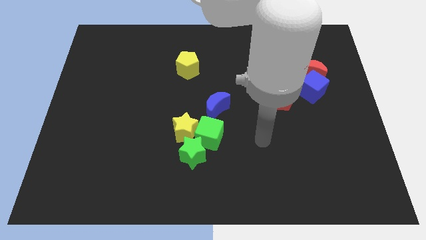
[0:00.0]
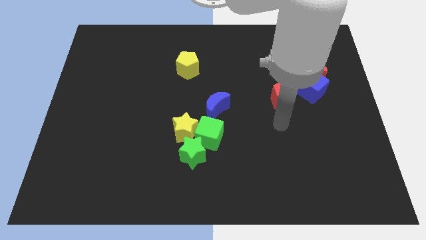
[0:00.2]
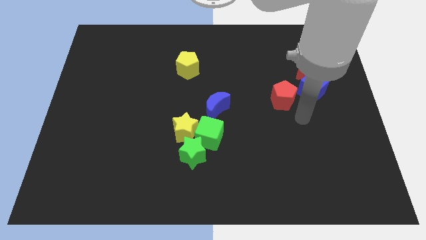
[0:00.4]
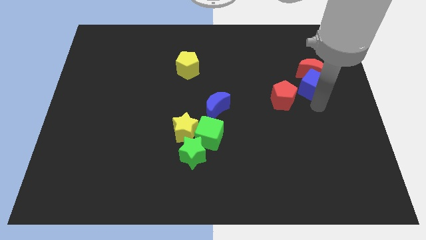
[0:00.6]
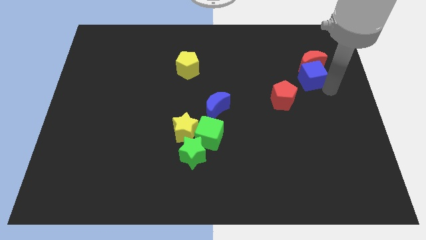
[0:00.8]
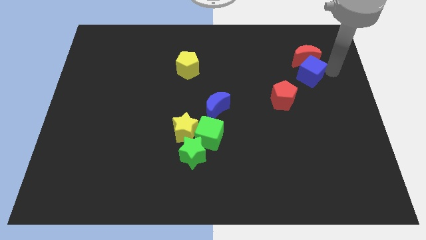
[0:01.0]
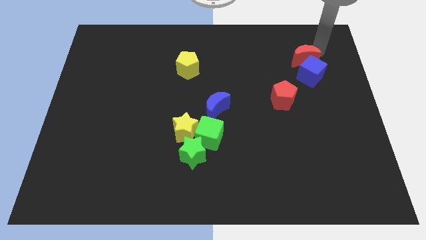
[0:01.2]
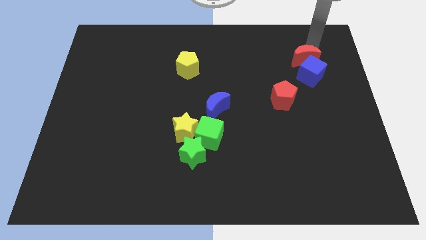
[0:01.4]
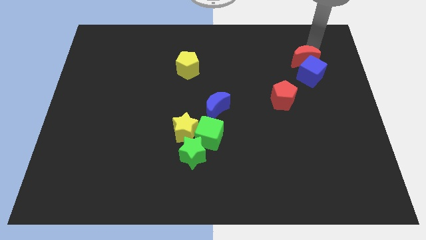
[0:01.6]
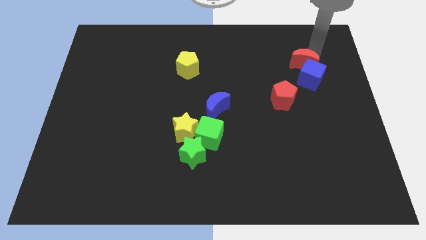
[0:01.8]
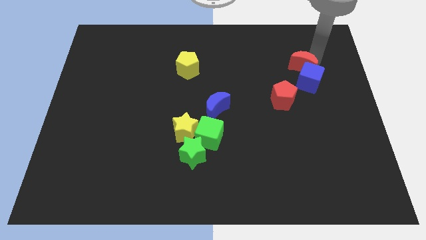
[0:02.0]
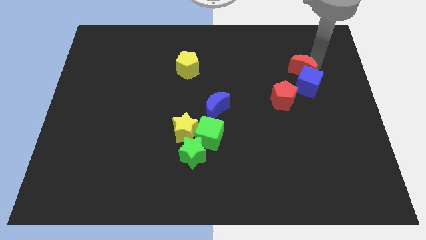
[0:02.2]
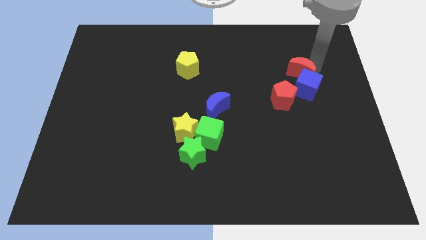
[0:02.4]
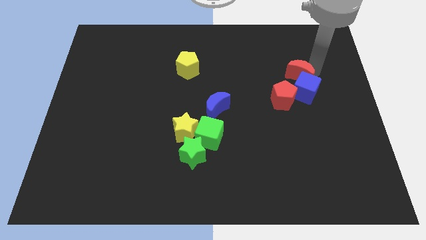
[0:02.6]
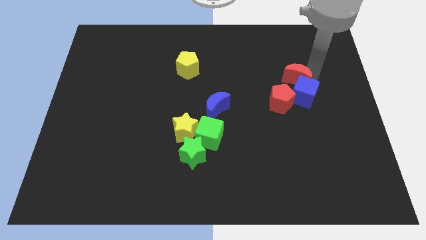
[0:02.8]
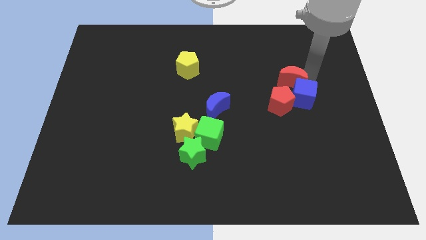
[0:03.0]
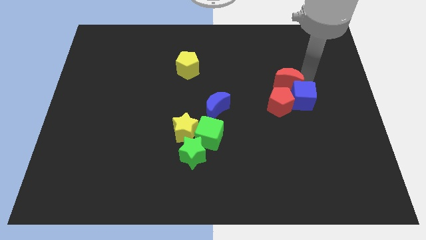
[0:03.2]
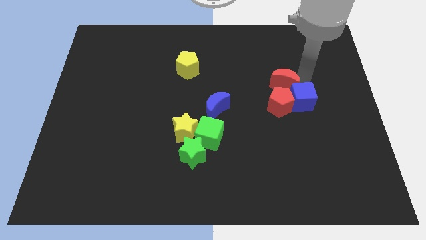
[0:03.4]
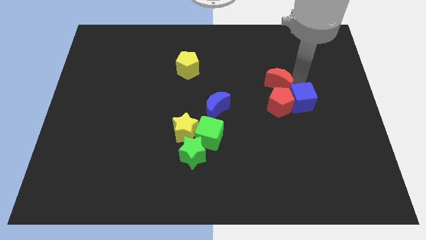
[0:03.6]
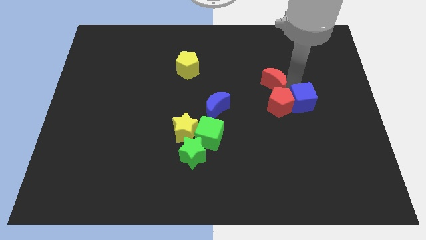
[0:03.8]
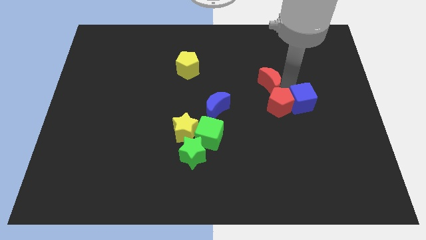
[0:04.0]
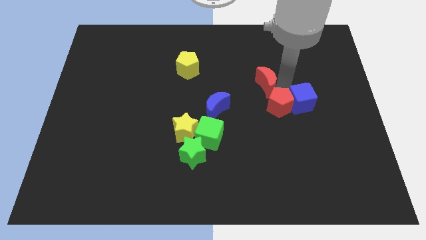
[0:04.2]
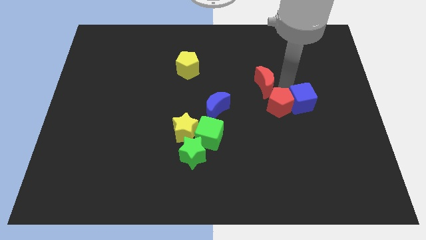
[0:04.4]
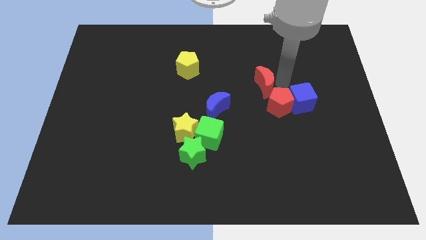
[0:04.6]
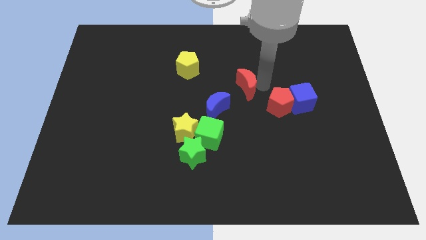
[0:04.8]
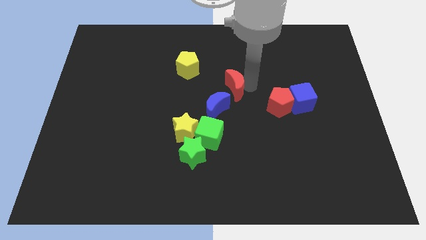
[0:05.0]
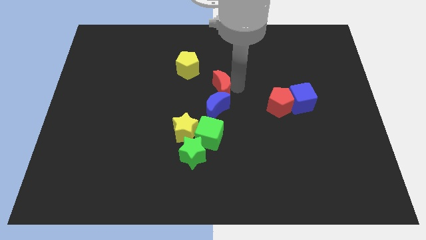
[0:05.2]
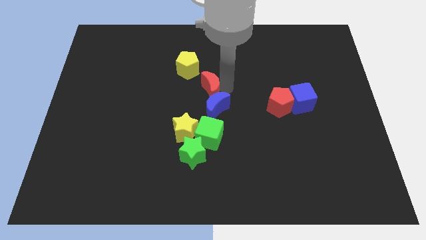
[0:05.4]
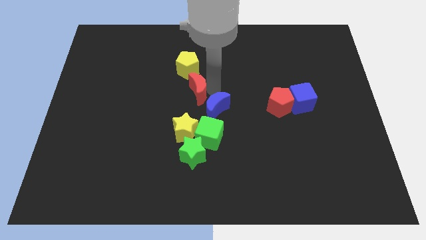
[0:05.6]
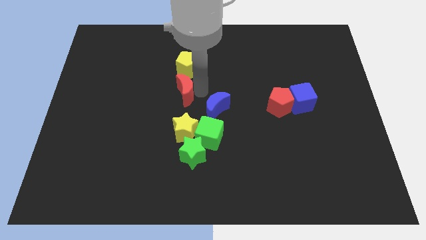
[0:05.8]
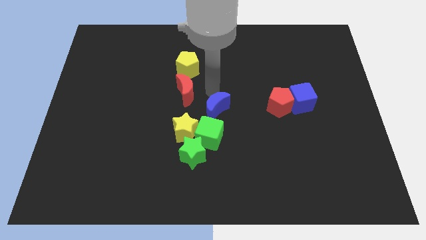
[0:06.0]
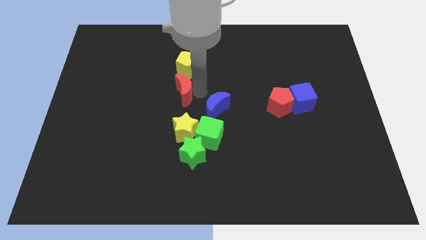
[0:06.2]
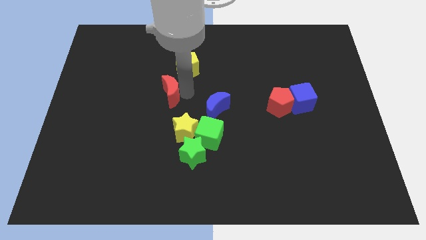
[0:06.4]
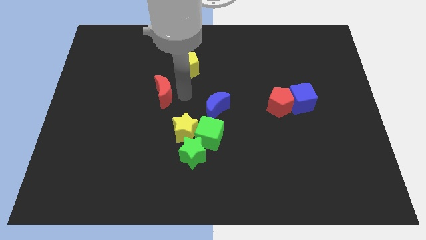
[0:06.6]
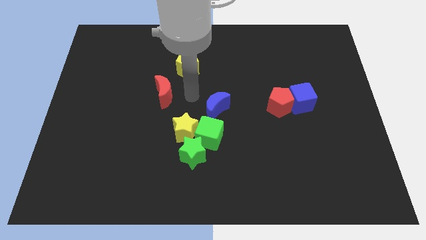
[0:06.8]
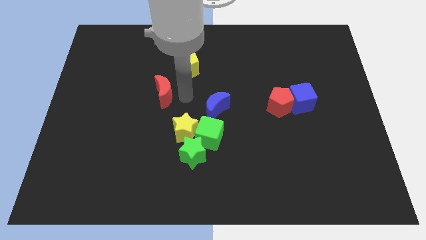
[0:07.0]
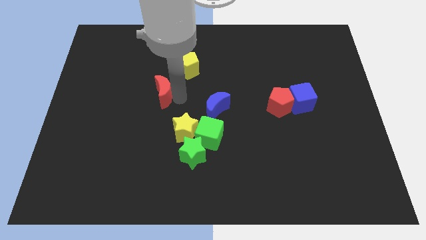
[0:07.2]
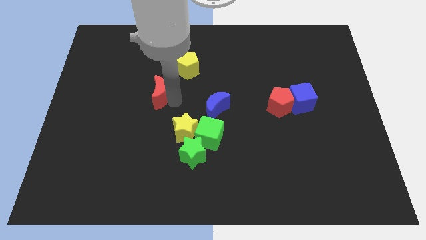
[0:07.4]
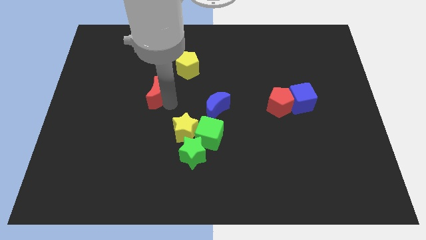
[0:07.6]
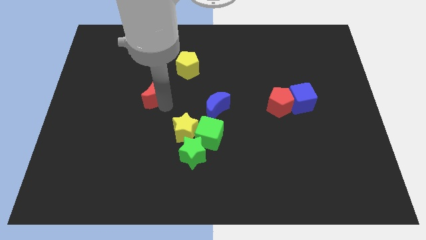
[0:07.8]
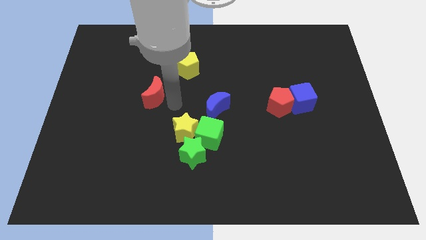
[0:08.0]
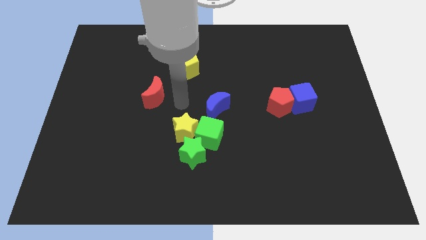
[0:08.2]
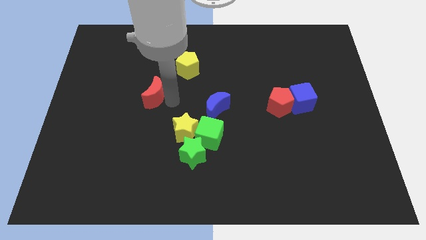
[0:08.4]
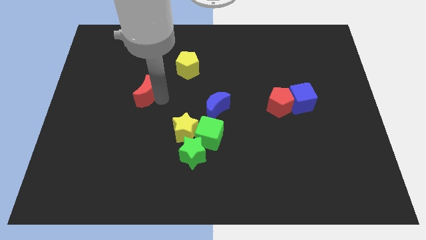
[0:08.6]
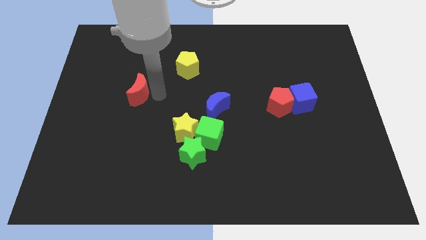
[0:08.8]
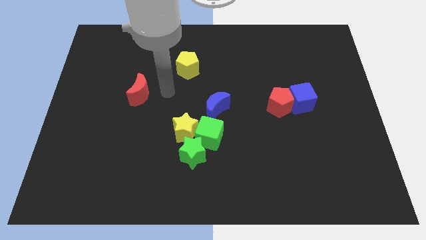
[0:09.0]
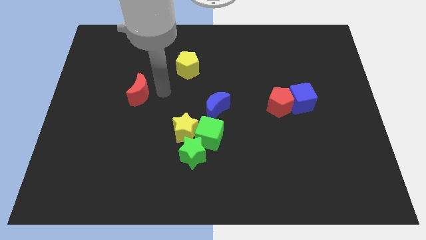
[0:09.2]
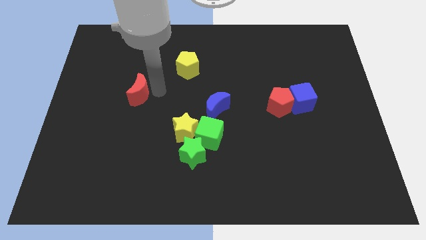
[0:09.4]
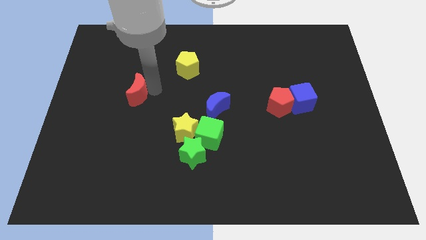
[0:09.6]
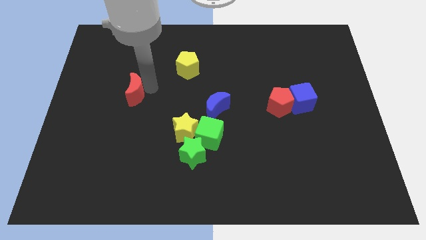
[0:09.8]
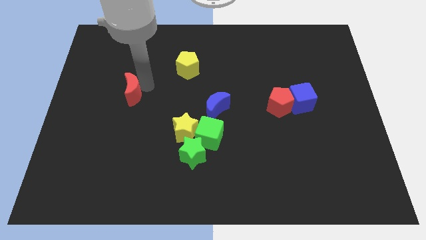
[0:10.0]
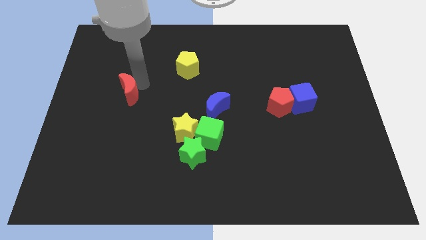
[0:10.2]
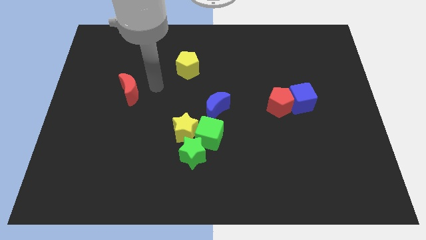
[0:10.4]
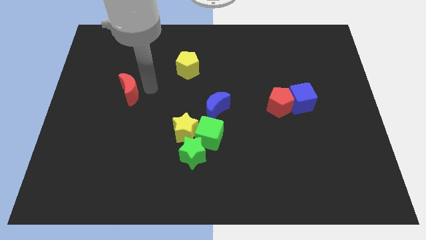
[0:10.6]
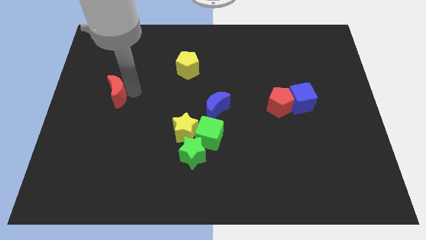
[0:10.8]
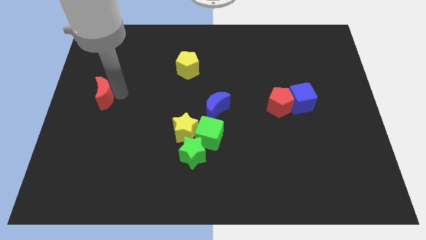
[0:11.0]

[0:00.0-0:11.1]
slide the red moon to the center left

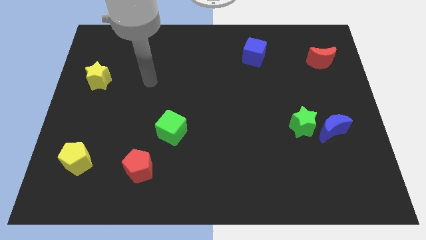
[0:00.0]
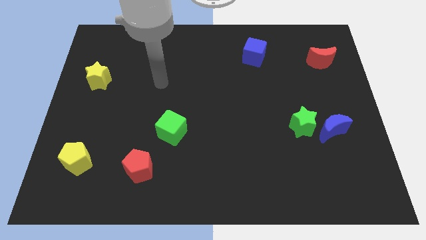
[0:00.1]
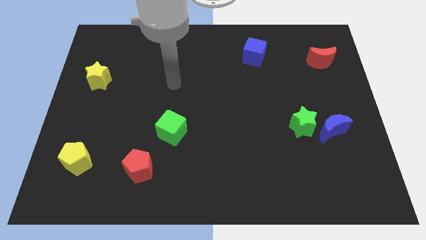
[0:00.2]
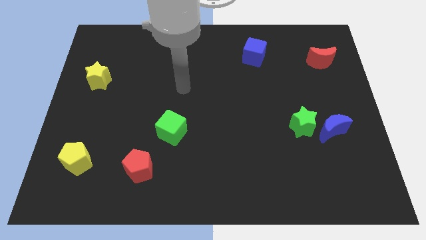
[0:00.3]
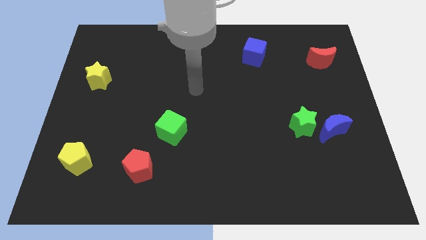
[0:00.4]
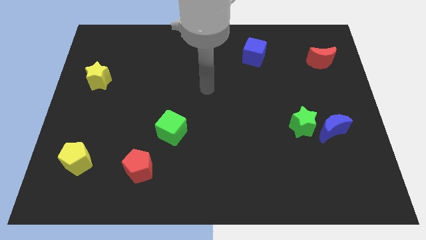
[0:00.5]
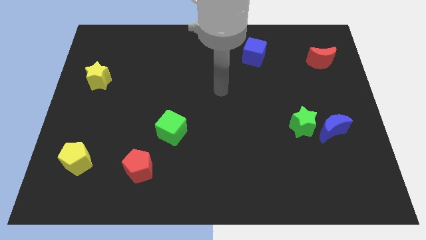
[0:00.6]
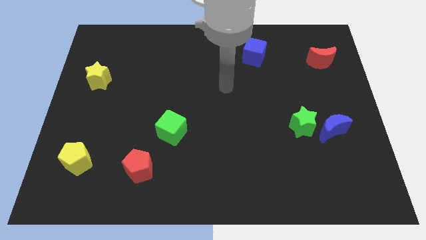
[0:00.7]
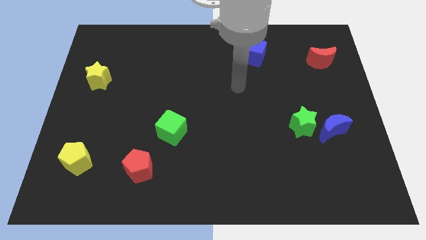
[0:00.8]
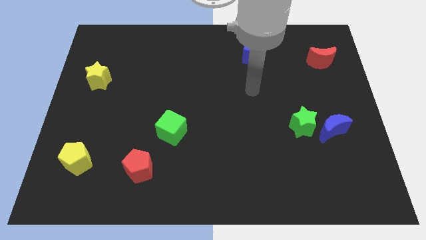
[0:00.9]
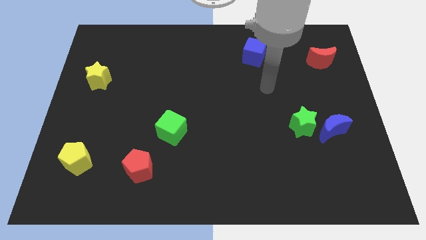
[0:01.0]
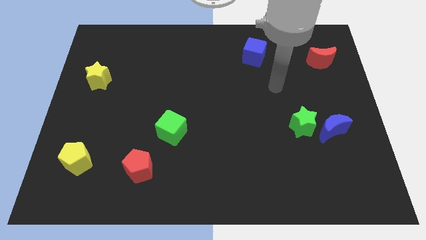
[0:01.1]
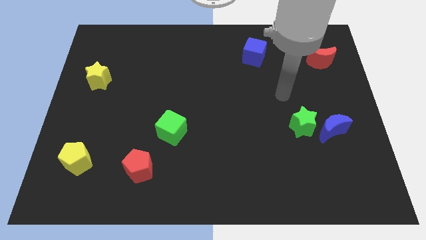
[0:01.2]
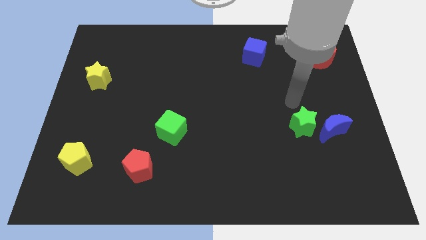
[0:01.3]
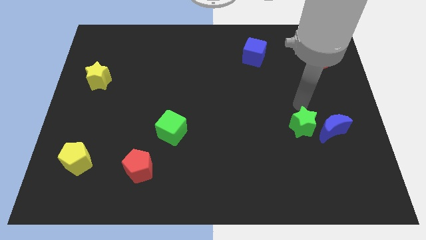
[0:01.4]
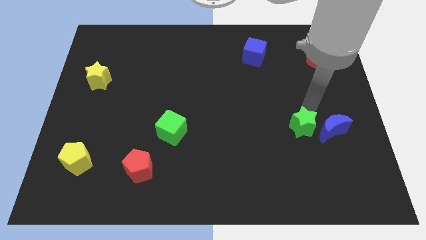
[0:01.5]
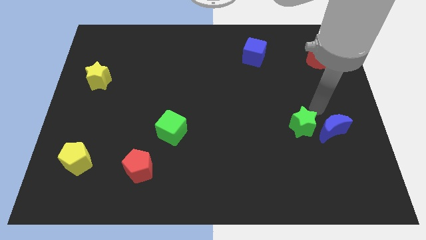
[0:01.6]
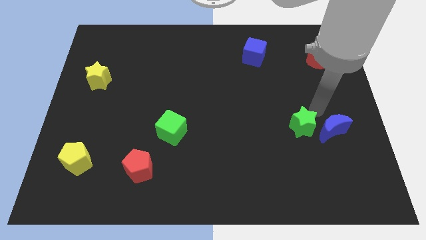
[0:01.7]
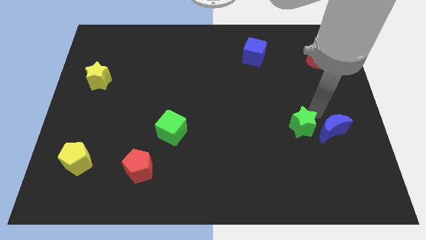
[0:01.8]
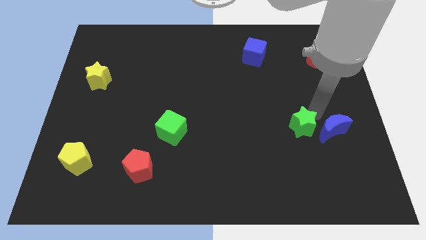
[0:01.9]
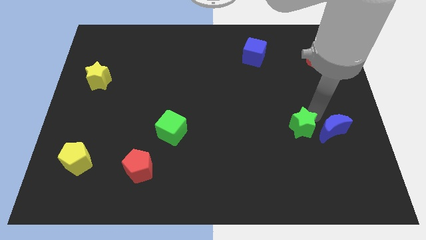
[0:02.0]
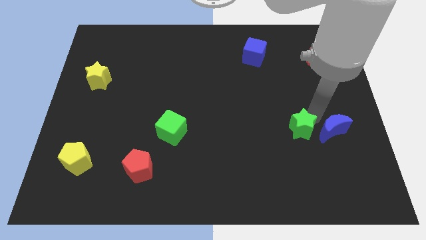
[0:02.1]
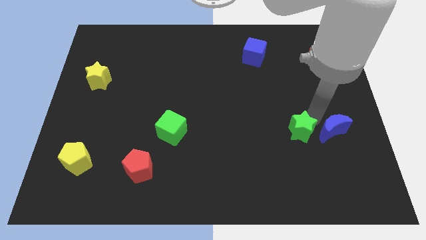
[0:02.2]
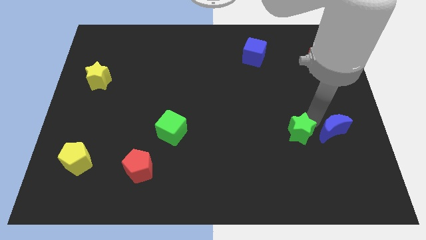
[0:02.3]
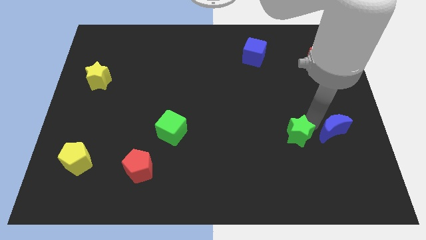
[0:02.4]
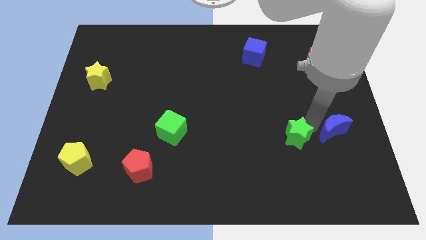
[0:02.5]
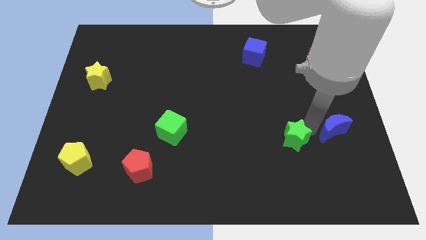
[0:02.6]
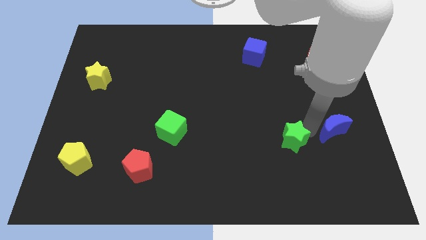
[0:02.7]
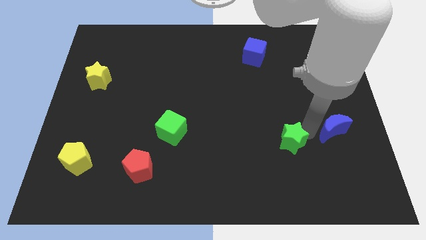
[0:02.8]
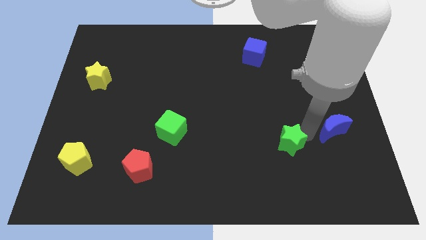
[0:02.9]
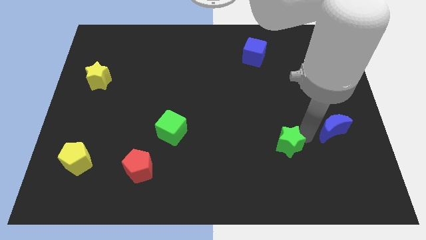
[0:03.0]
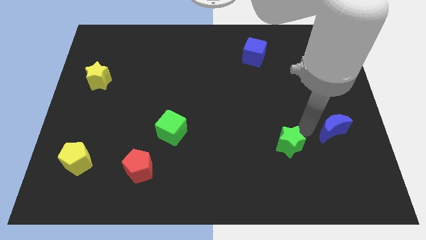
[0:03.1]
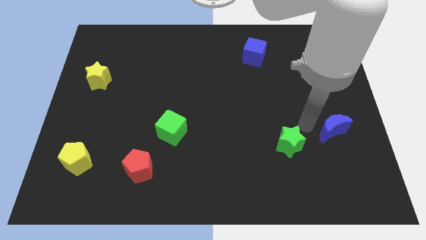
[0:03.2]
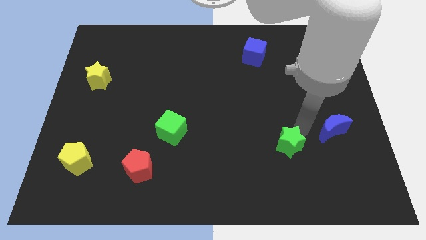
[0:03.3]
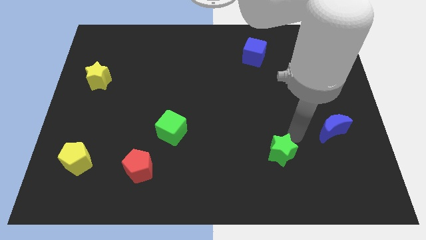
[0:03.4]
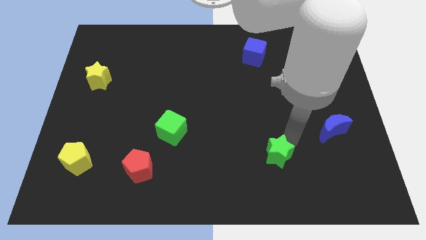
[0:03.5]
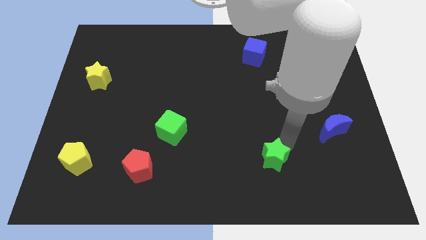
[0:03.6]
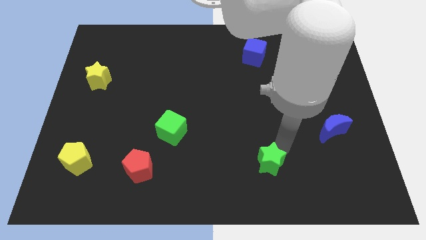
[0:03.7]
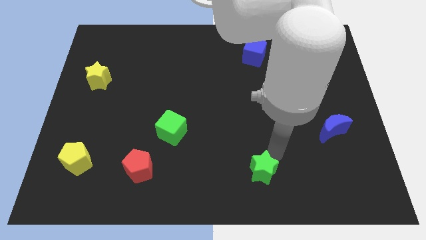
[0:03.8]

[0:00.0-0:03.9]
move the green star to the bottom
